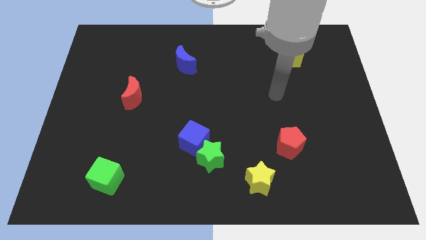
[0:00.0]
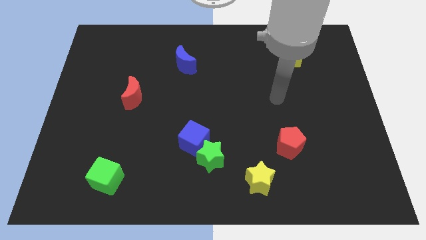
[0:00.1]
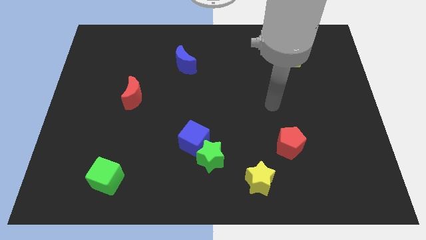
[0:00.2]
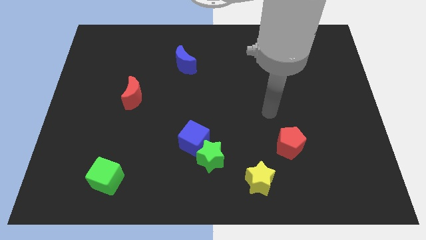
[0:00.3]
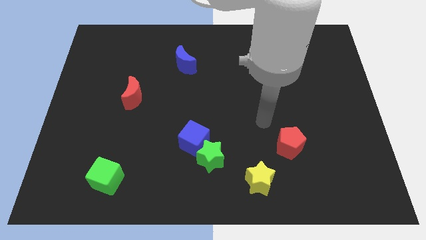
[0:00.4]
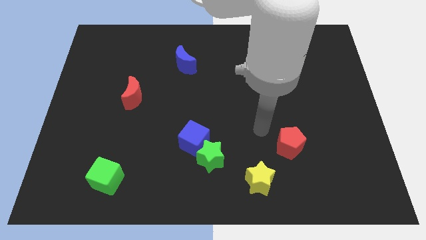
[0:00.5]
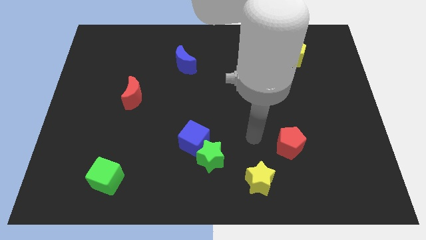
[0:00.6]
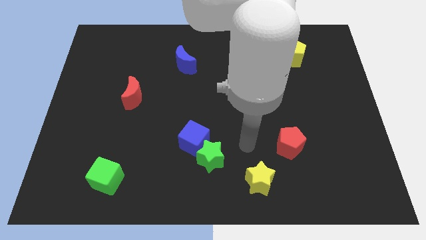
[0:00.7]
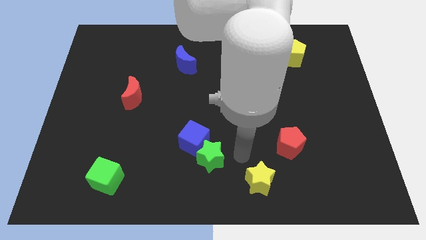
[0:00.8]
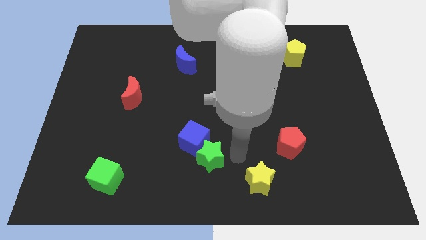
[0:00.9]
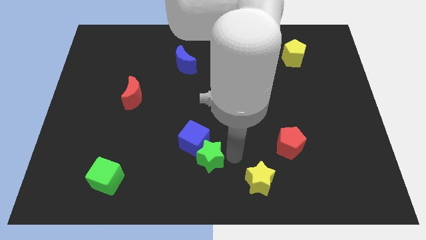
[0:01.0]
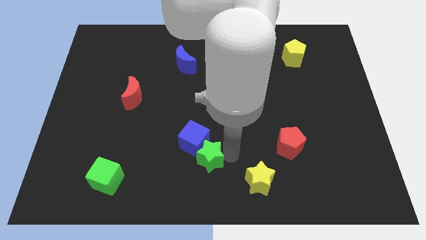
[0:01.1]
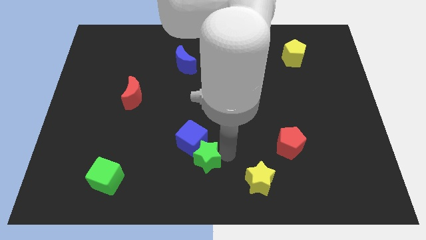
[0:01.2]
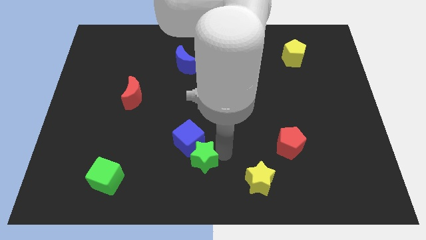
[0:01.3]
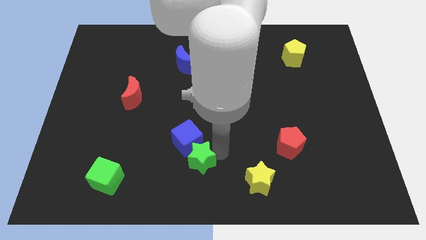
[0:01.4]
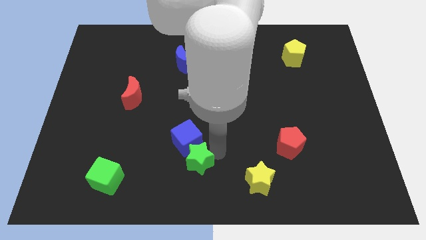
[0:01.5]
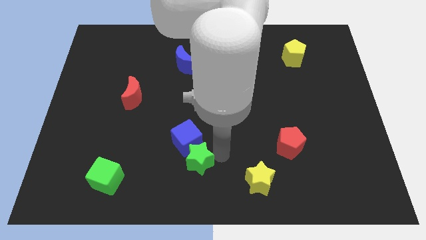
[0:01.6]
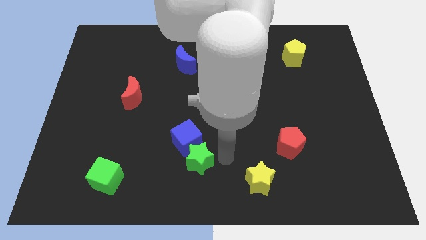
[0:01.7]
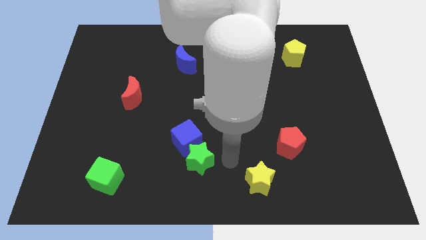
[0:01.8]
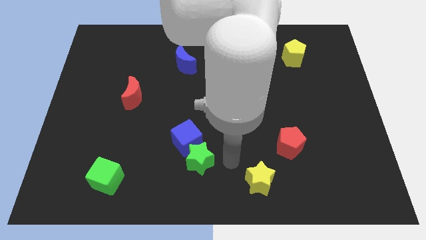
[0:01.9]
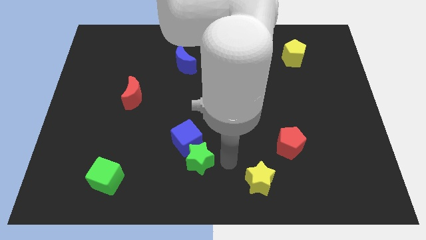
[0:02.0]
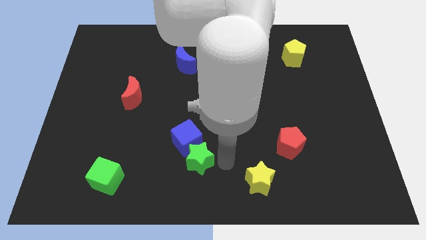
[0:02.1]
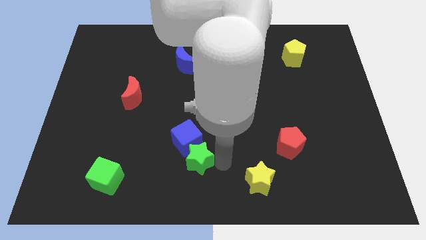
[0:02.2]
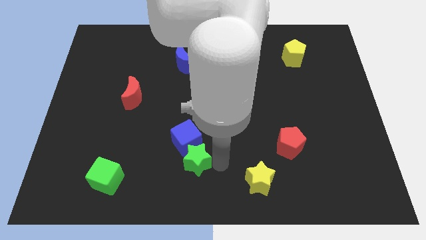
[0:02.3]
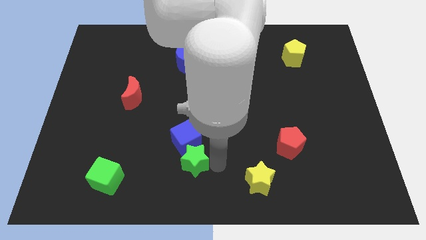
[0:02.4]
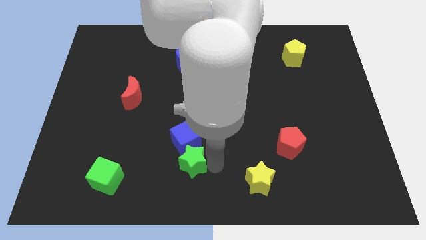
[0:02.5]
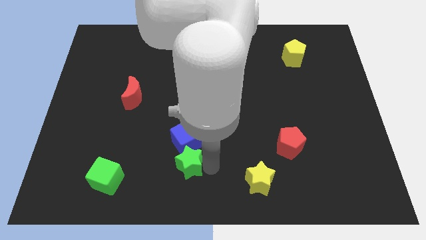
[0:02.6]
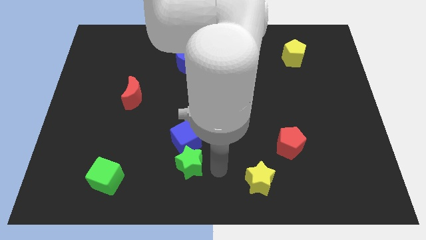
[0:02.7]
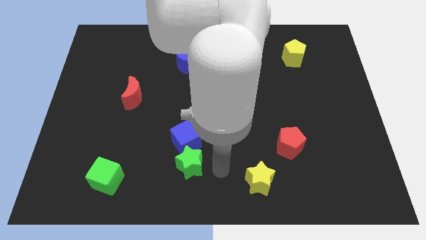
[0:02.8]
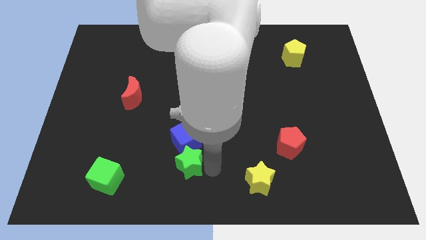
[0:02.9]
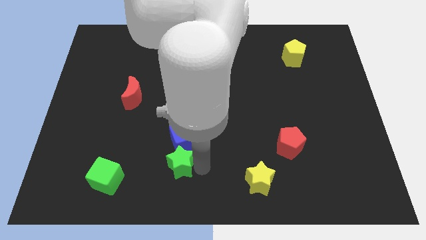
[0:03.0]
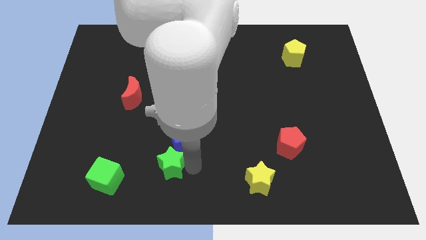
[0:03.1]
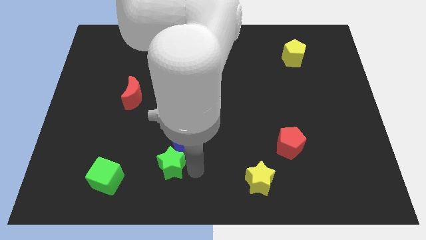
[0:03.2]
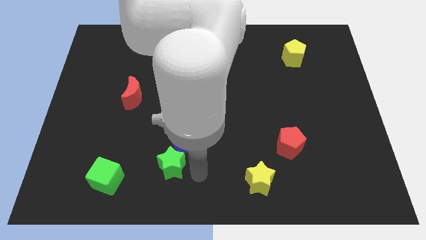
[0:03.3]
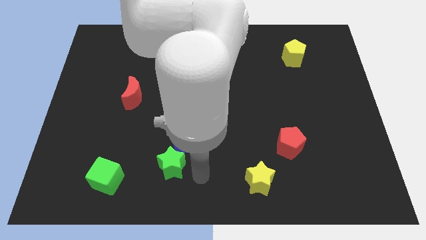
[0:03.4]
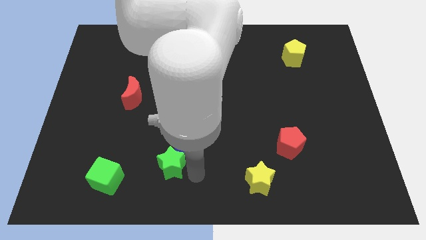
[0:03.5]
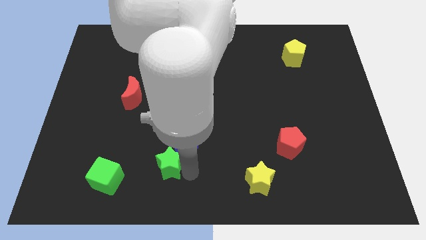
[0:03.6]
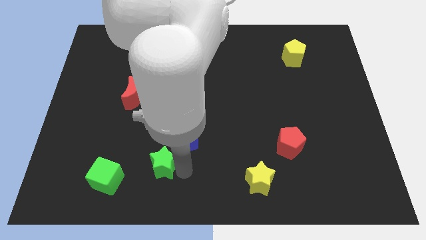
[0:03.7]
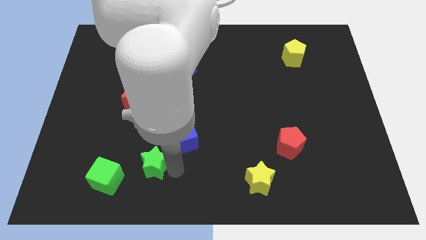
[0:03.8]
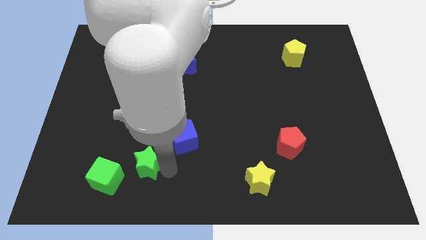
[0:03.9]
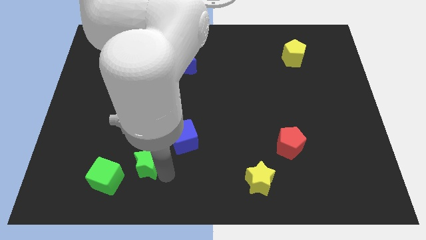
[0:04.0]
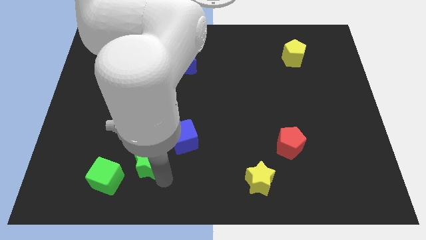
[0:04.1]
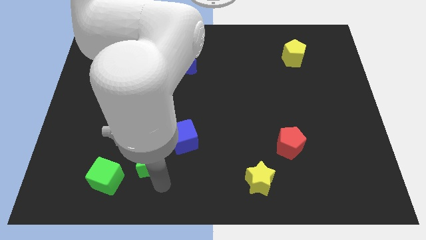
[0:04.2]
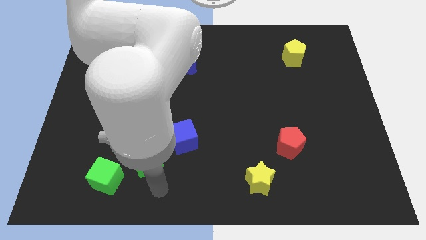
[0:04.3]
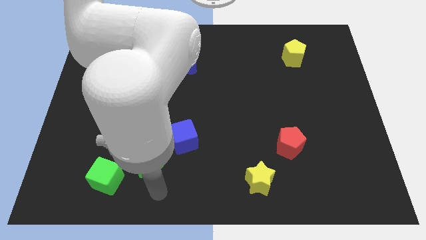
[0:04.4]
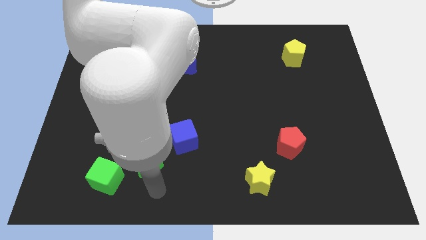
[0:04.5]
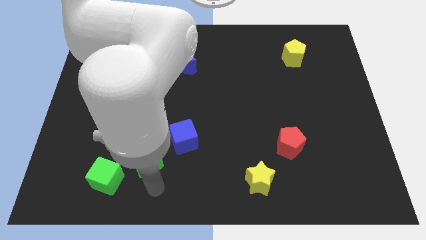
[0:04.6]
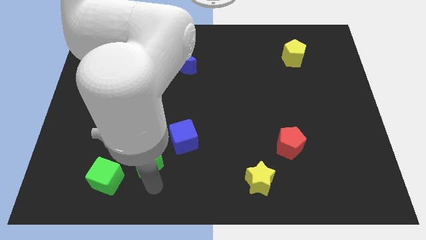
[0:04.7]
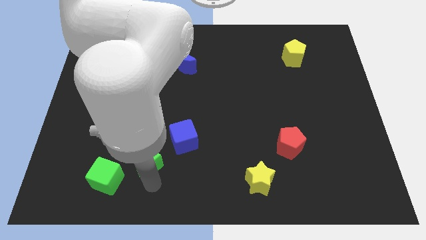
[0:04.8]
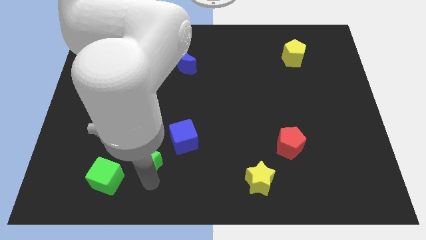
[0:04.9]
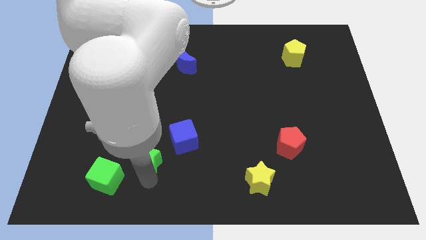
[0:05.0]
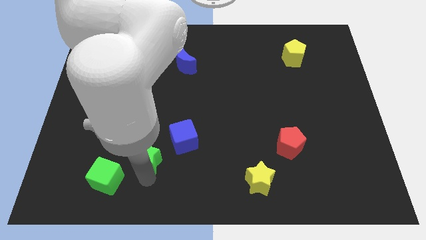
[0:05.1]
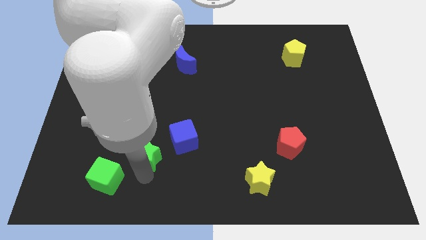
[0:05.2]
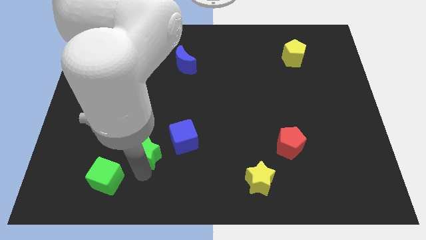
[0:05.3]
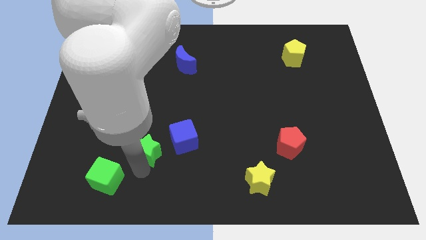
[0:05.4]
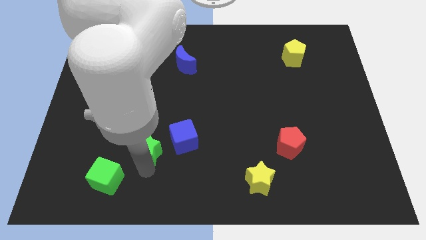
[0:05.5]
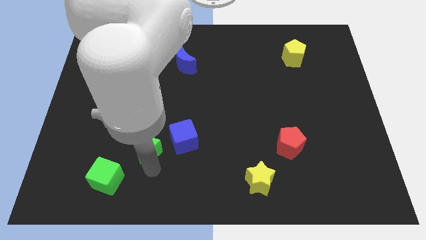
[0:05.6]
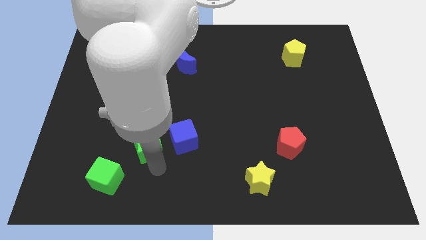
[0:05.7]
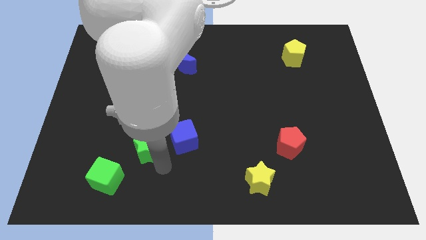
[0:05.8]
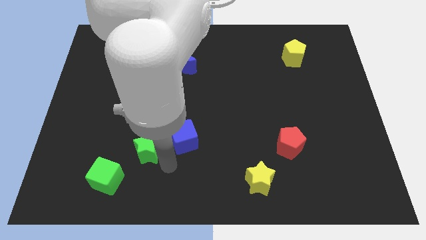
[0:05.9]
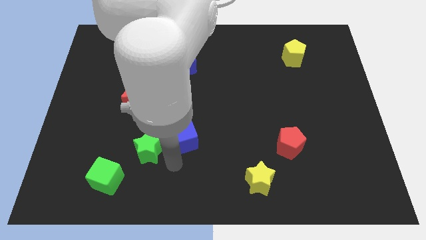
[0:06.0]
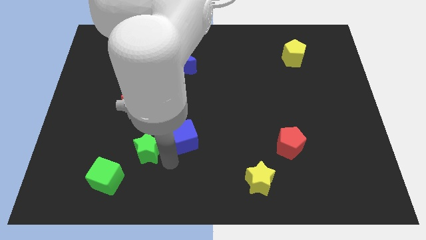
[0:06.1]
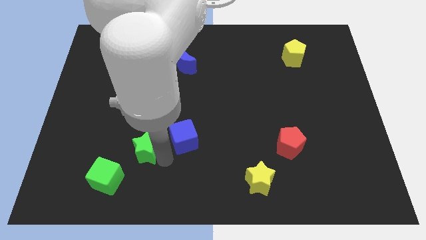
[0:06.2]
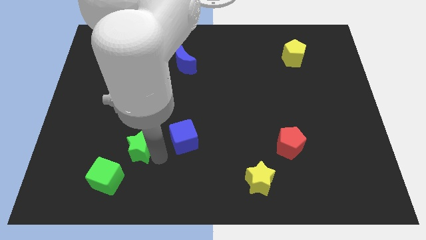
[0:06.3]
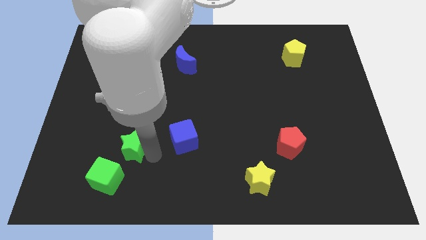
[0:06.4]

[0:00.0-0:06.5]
put the green star to the top side of the green cube

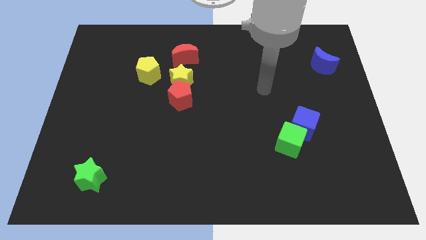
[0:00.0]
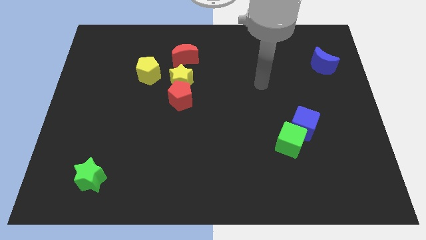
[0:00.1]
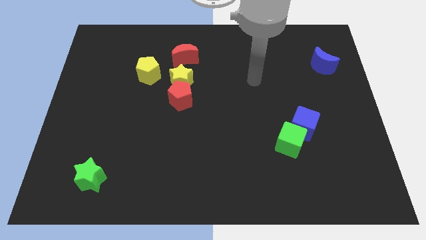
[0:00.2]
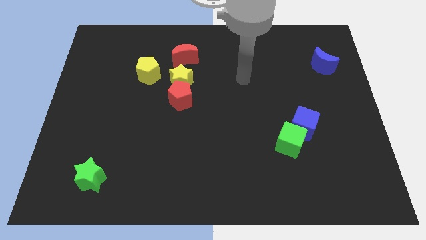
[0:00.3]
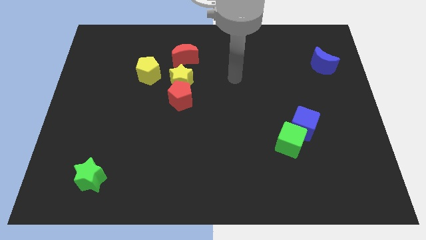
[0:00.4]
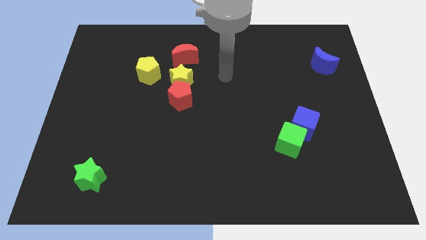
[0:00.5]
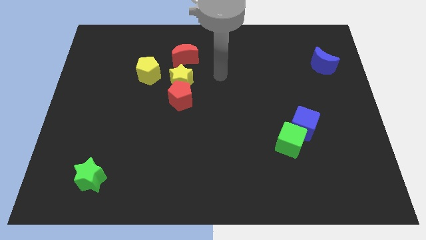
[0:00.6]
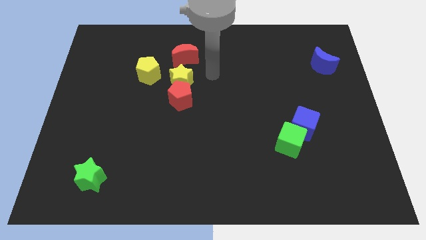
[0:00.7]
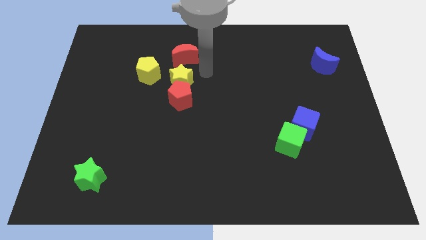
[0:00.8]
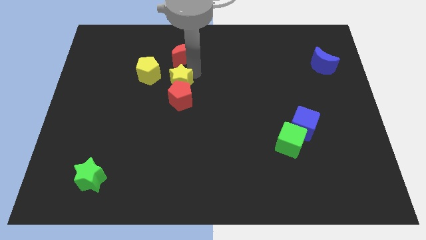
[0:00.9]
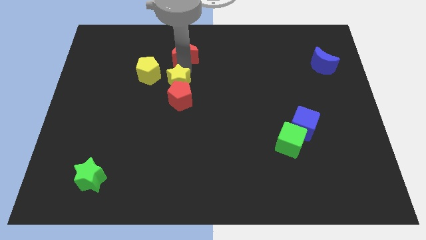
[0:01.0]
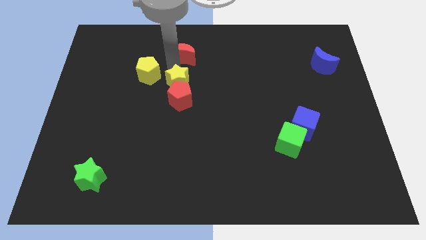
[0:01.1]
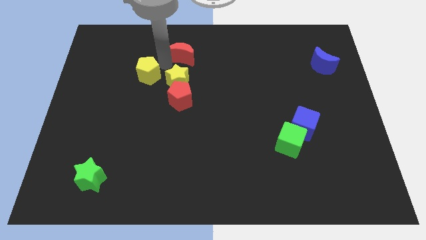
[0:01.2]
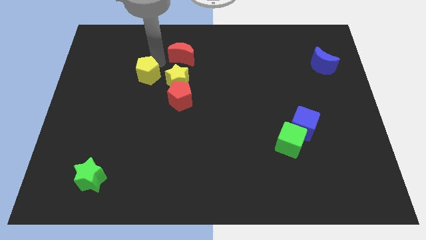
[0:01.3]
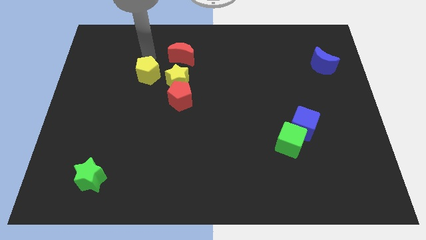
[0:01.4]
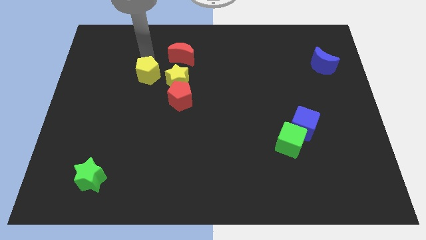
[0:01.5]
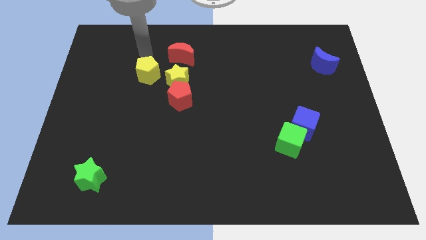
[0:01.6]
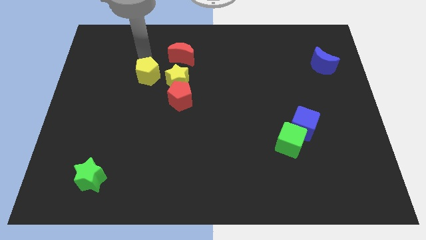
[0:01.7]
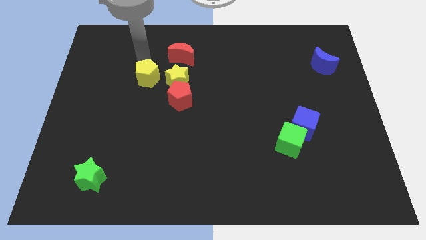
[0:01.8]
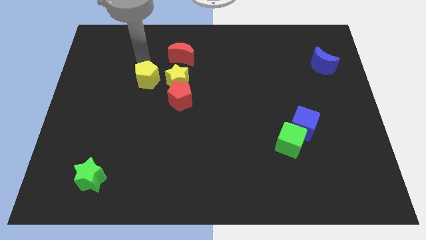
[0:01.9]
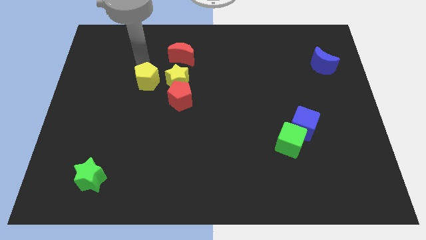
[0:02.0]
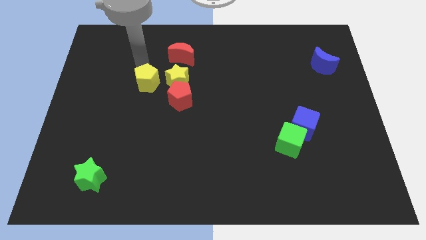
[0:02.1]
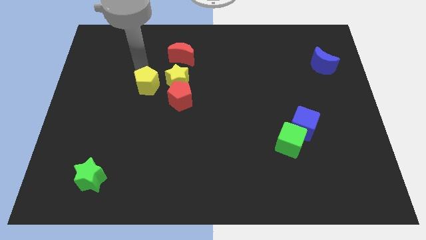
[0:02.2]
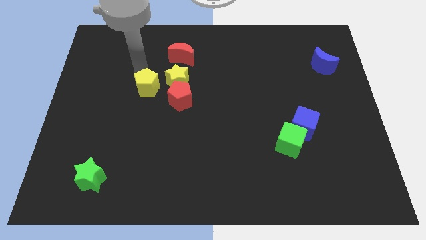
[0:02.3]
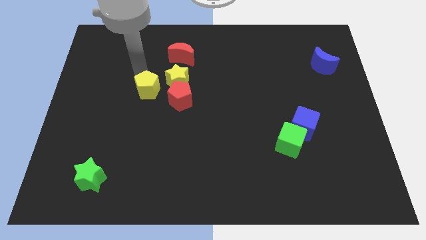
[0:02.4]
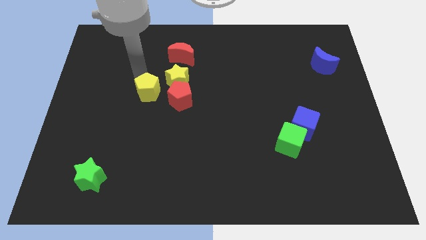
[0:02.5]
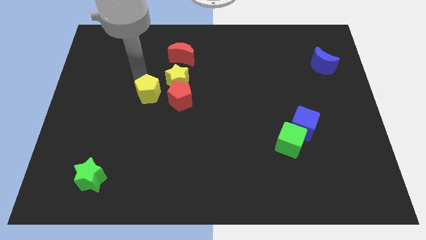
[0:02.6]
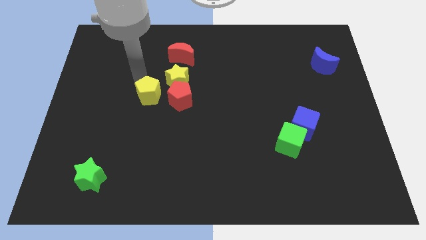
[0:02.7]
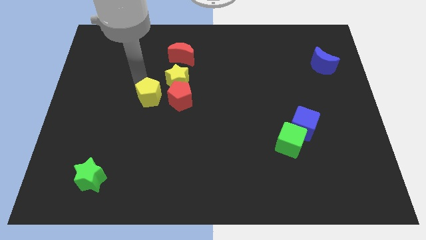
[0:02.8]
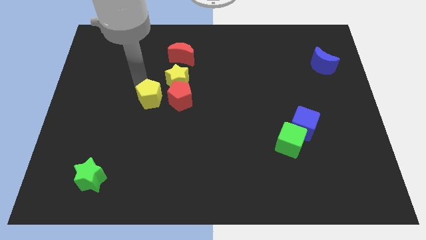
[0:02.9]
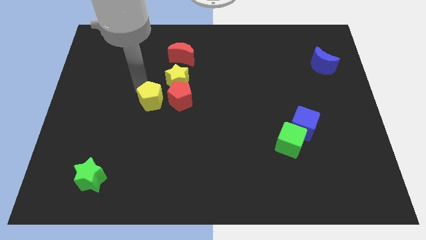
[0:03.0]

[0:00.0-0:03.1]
push the yellow pentagon to the bottom left of the red pentagon
